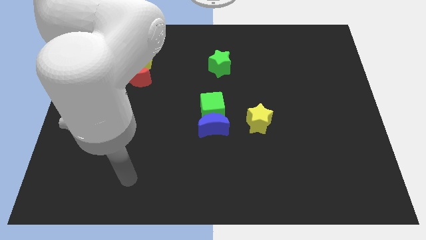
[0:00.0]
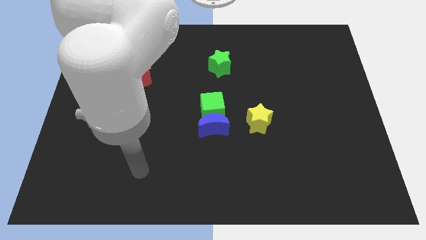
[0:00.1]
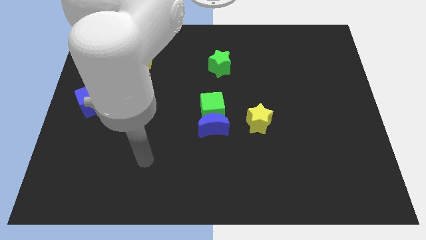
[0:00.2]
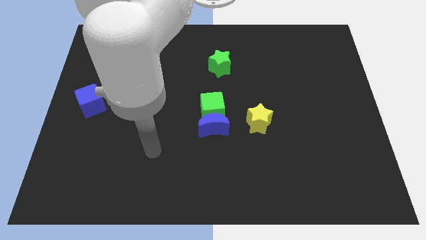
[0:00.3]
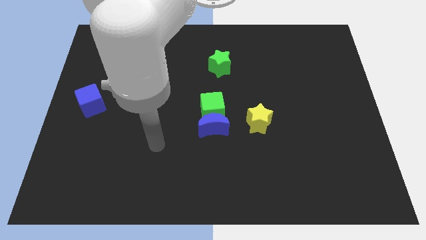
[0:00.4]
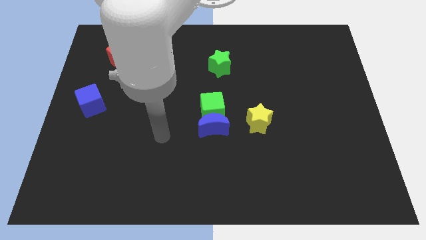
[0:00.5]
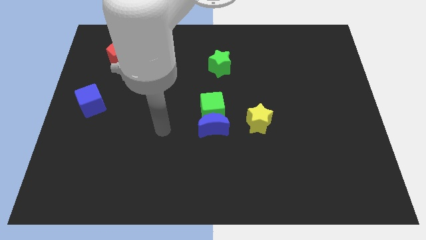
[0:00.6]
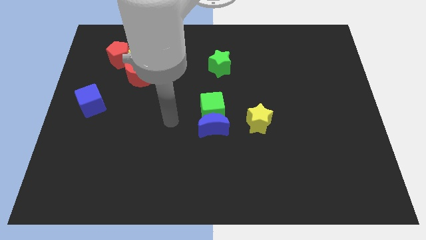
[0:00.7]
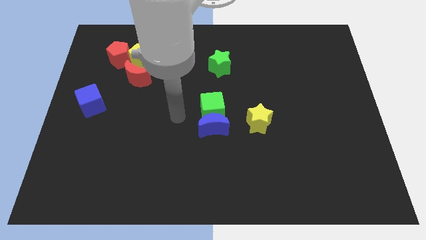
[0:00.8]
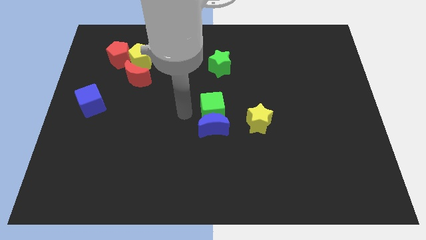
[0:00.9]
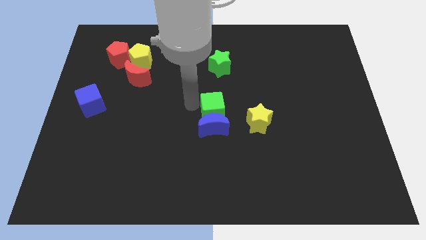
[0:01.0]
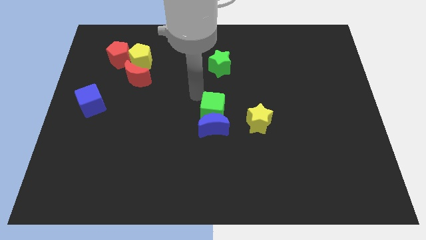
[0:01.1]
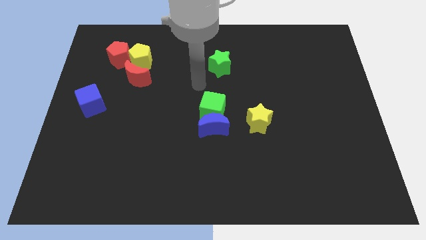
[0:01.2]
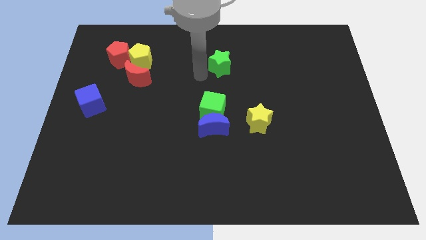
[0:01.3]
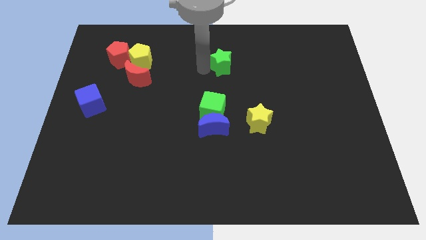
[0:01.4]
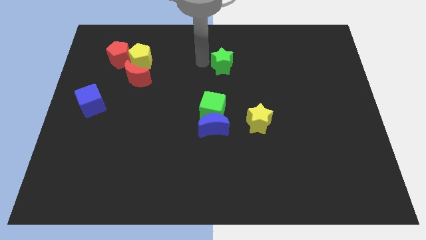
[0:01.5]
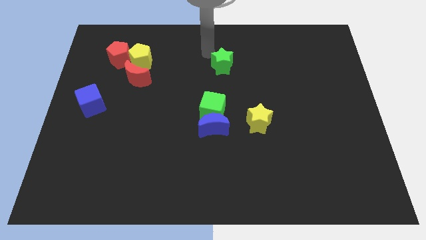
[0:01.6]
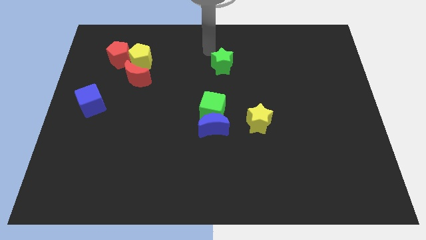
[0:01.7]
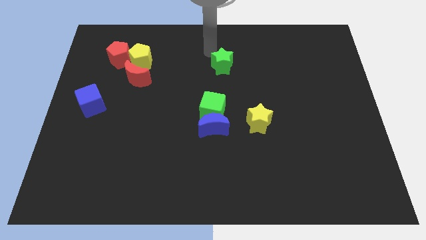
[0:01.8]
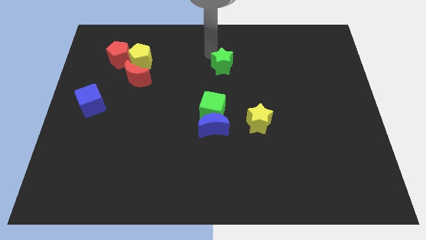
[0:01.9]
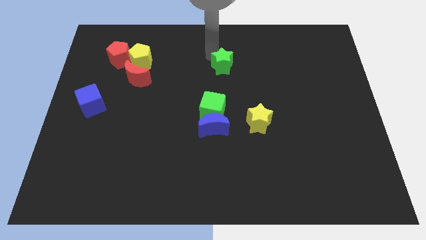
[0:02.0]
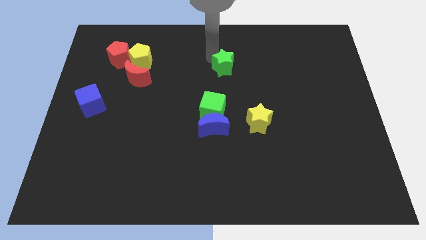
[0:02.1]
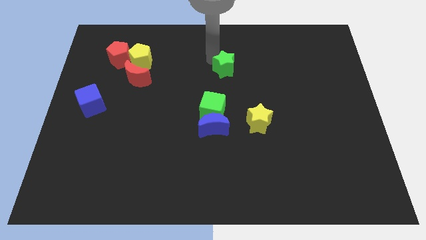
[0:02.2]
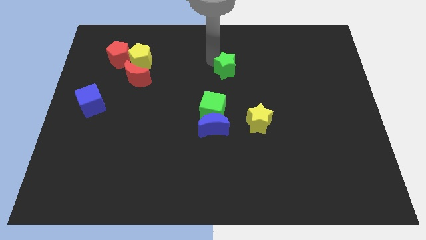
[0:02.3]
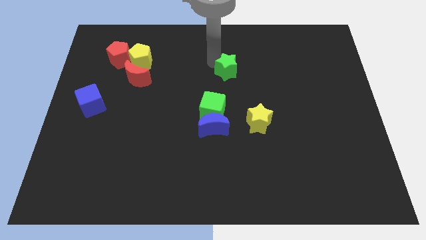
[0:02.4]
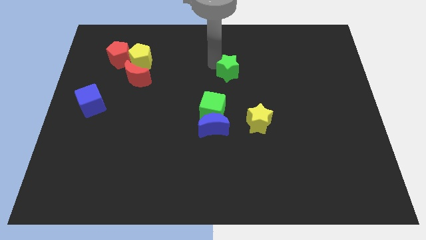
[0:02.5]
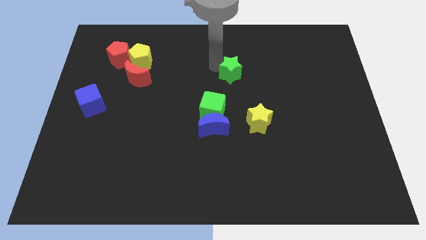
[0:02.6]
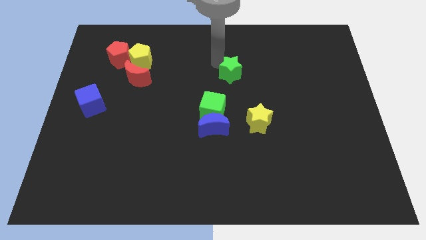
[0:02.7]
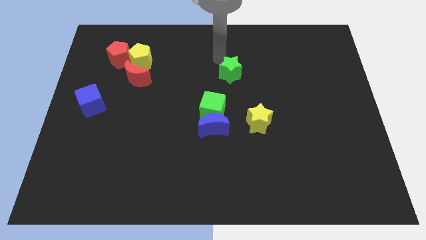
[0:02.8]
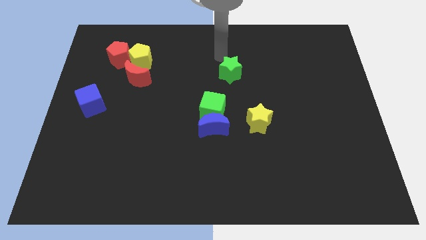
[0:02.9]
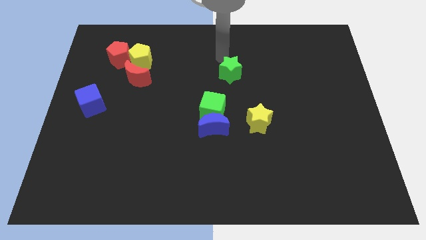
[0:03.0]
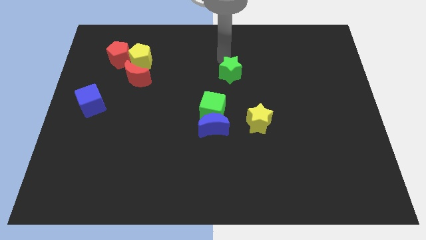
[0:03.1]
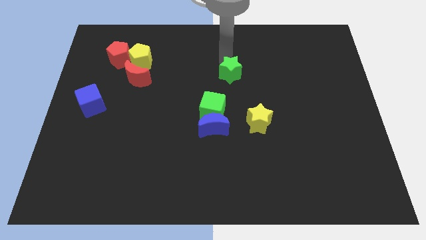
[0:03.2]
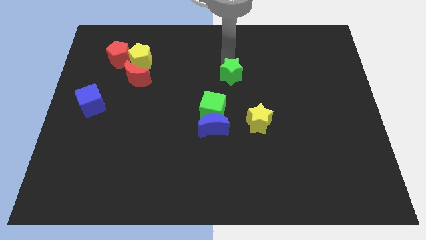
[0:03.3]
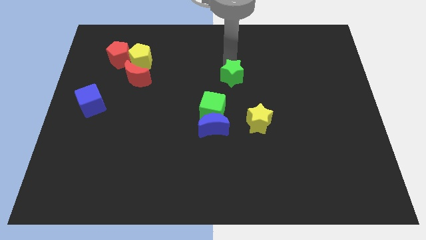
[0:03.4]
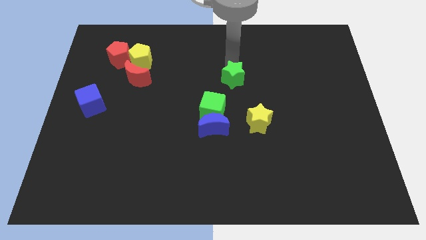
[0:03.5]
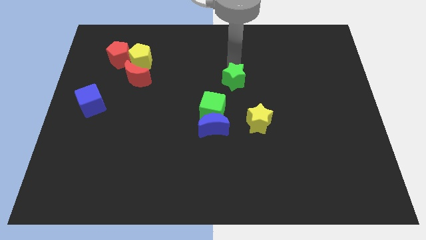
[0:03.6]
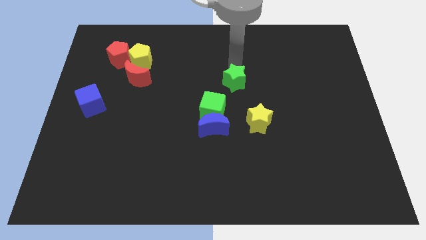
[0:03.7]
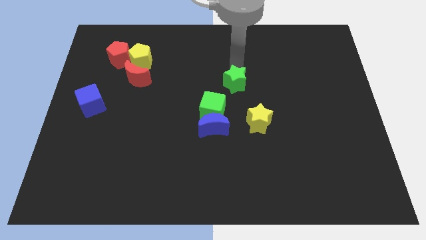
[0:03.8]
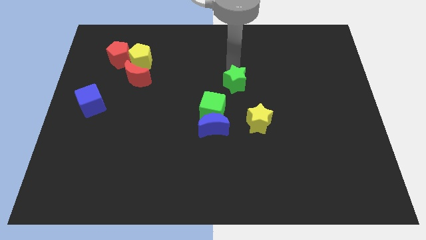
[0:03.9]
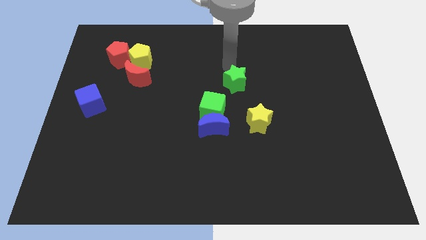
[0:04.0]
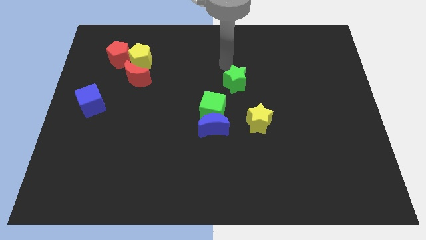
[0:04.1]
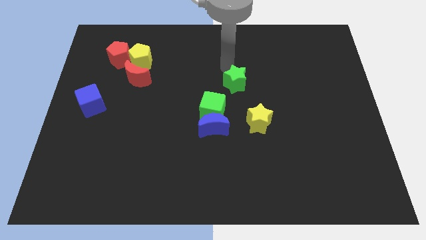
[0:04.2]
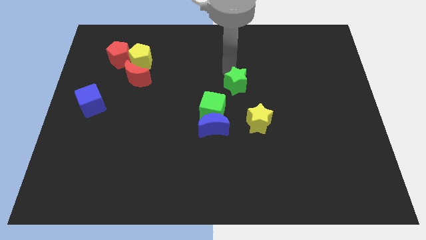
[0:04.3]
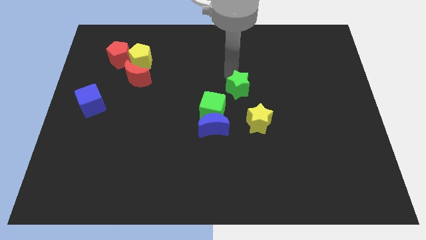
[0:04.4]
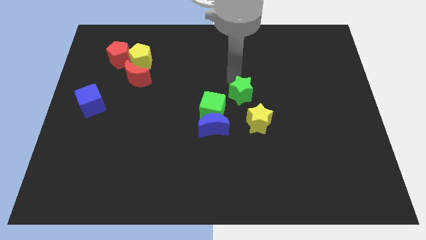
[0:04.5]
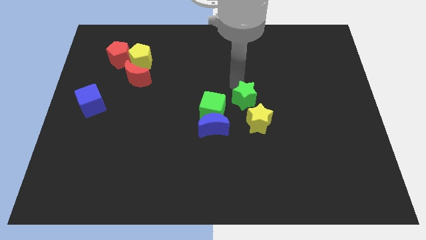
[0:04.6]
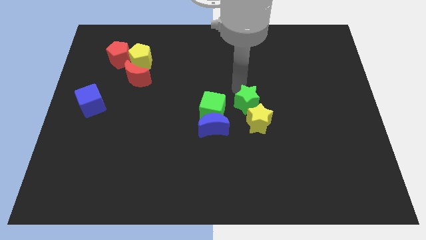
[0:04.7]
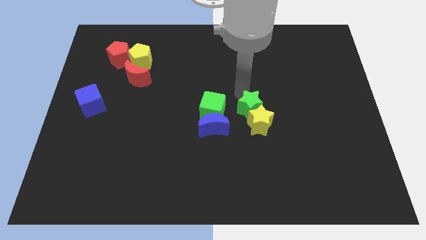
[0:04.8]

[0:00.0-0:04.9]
push the green star towards the yellow star

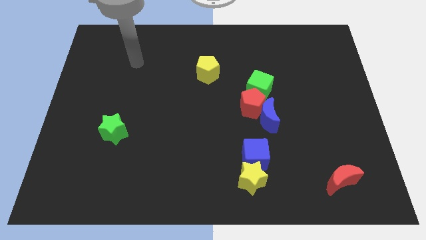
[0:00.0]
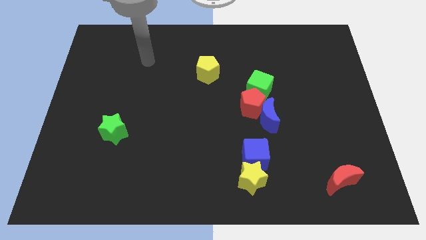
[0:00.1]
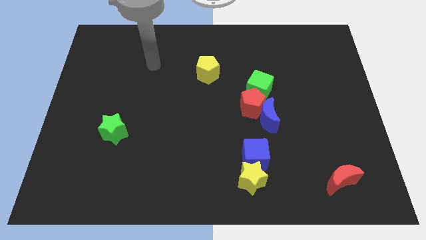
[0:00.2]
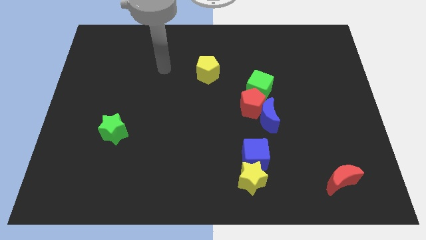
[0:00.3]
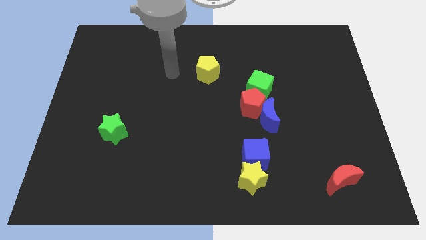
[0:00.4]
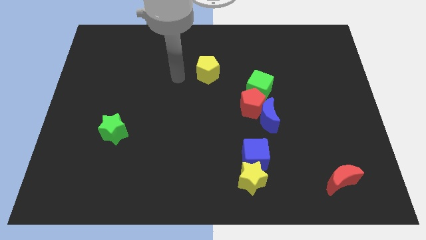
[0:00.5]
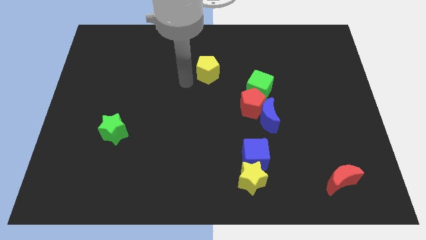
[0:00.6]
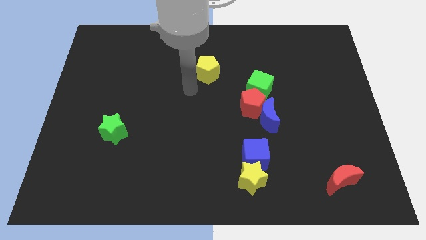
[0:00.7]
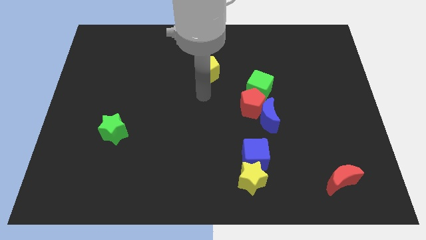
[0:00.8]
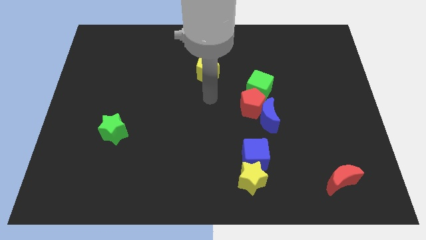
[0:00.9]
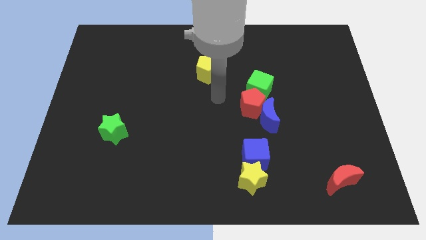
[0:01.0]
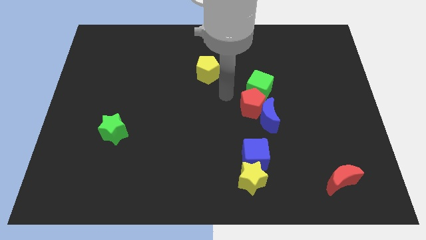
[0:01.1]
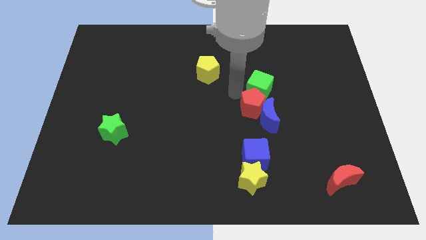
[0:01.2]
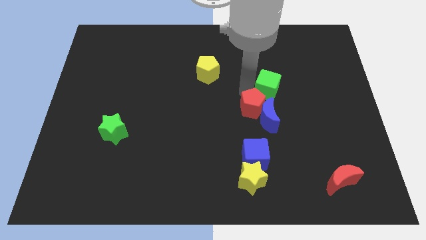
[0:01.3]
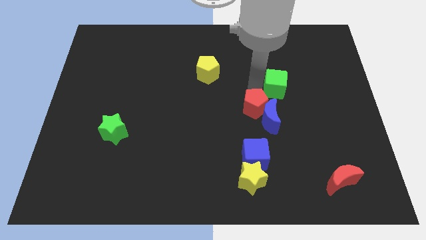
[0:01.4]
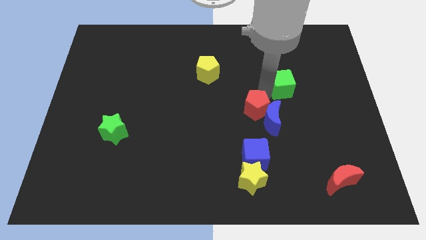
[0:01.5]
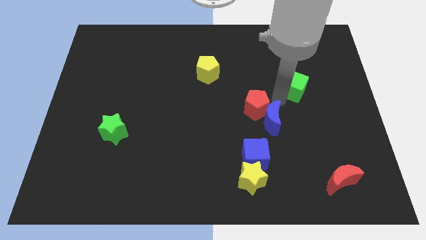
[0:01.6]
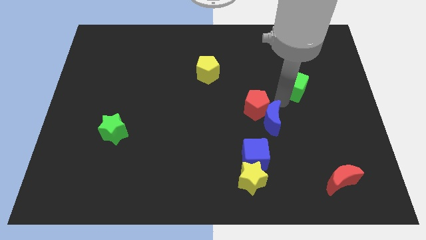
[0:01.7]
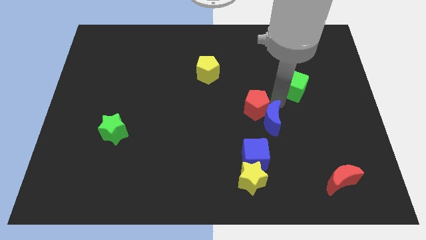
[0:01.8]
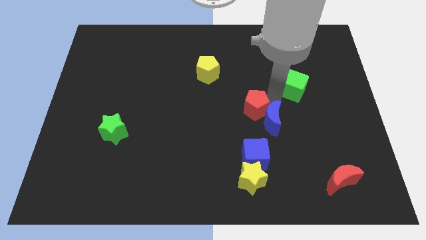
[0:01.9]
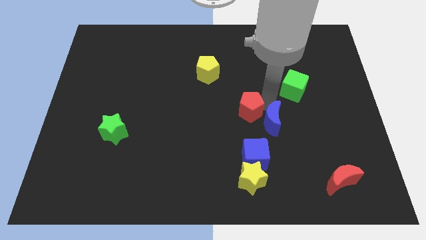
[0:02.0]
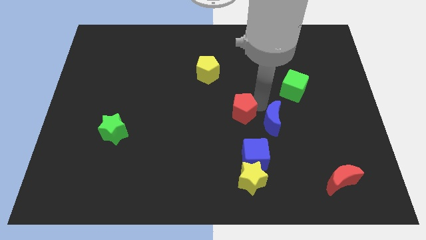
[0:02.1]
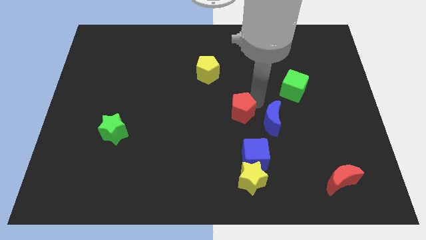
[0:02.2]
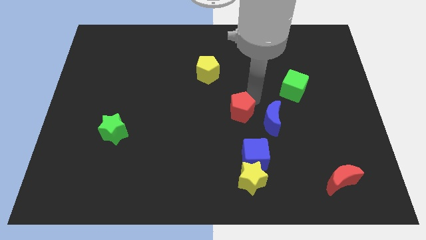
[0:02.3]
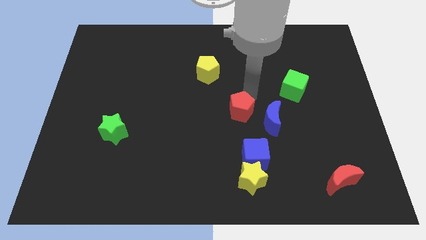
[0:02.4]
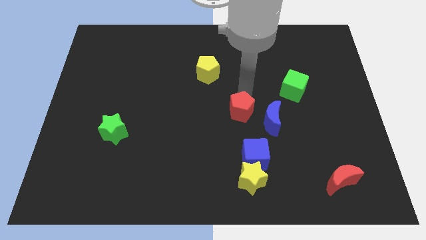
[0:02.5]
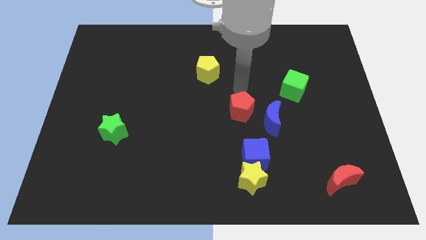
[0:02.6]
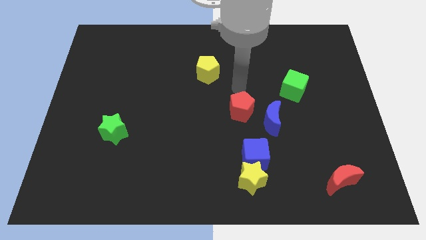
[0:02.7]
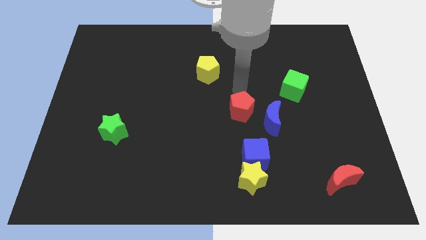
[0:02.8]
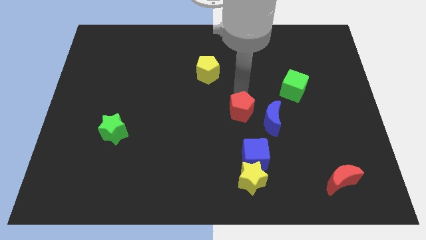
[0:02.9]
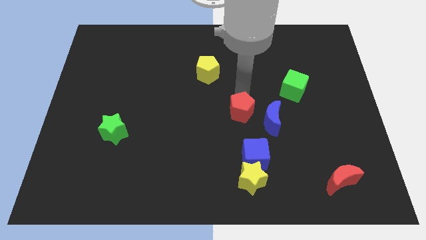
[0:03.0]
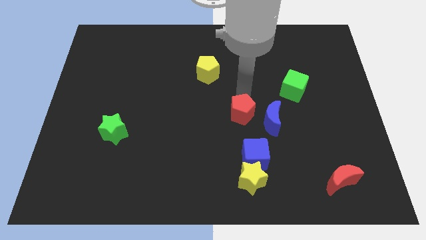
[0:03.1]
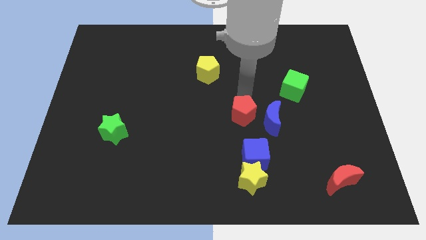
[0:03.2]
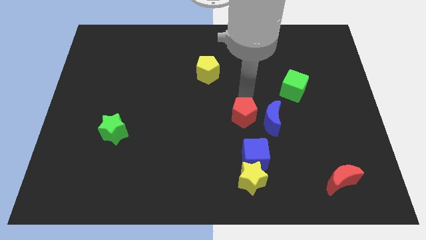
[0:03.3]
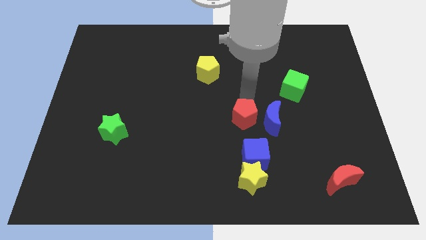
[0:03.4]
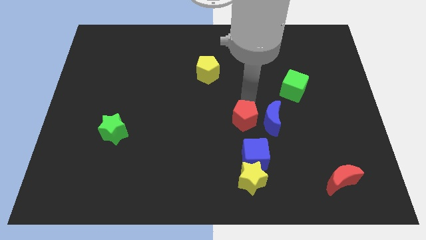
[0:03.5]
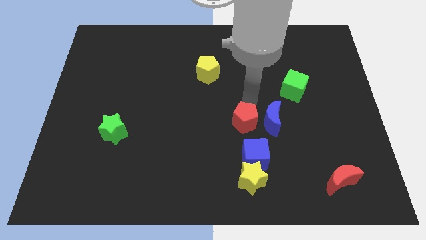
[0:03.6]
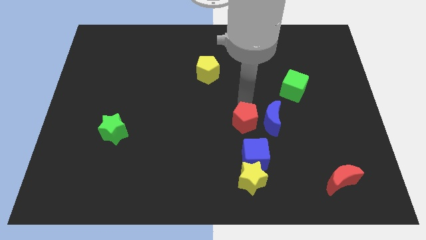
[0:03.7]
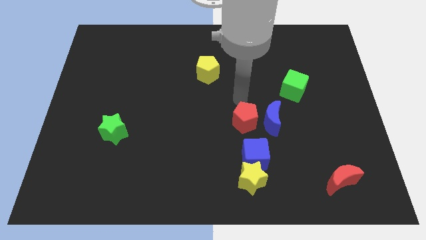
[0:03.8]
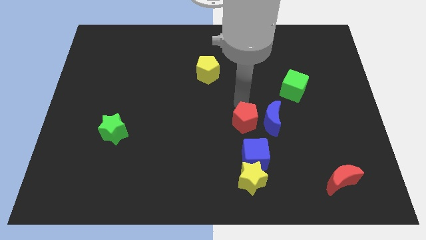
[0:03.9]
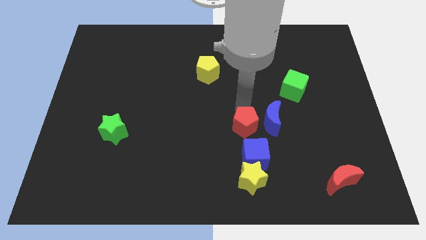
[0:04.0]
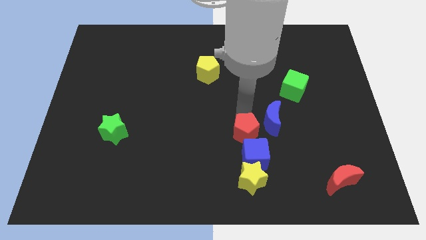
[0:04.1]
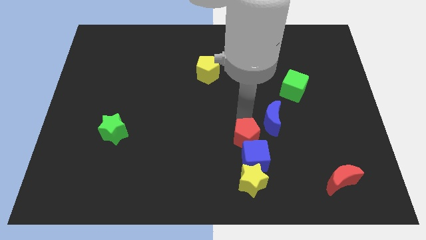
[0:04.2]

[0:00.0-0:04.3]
move the red pentagon next to the blue cube
